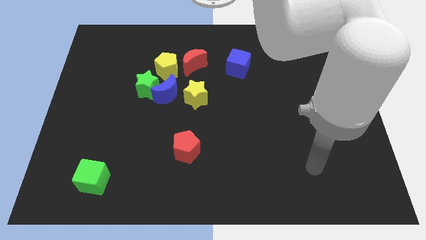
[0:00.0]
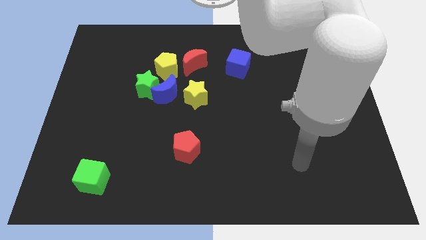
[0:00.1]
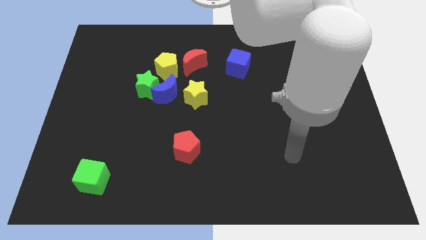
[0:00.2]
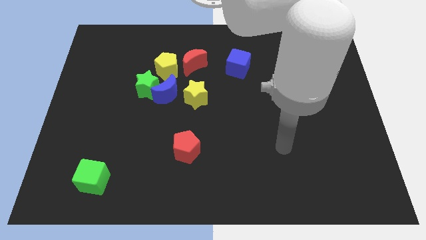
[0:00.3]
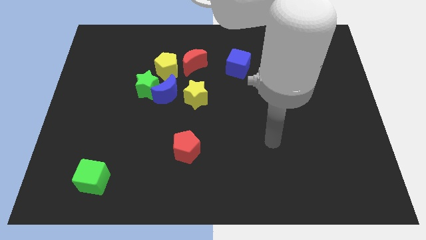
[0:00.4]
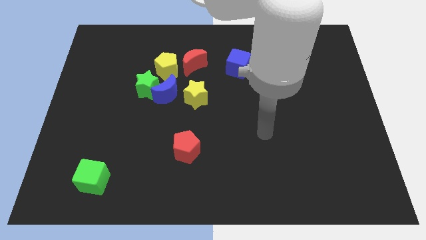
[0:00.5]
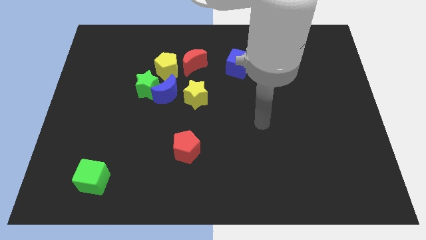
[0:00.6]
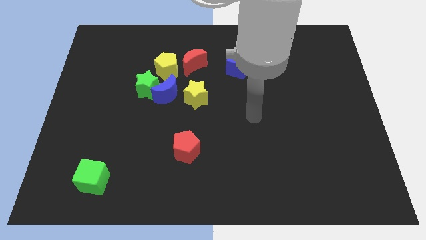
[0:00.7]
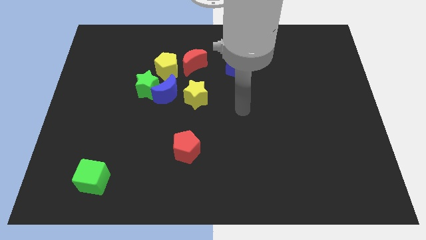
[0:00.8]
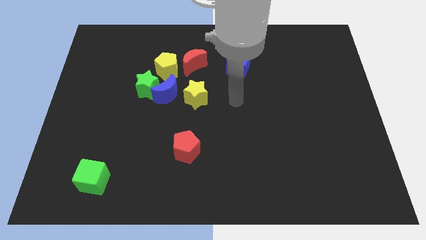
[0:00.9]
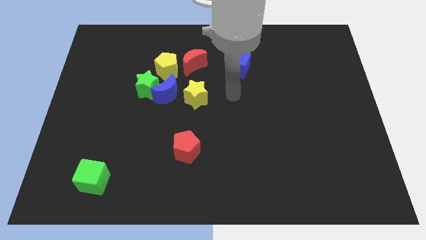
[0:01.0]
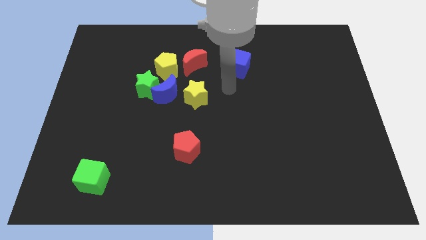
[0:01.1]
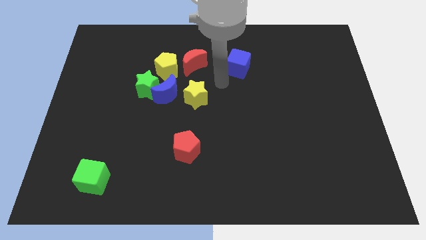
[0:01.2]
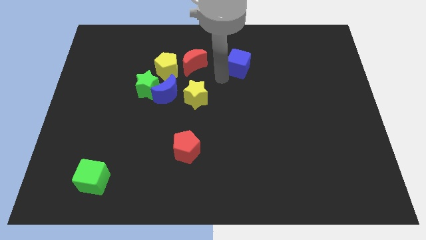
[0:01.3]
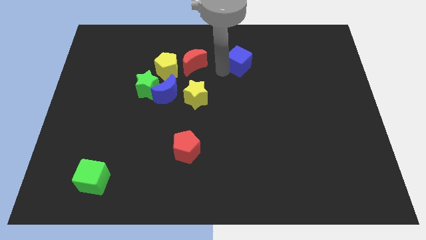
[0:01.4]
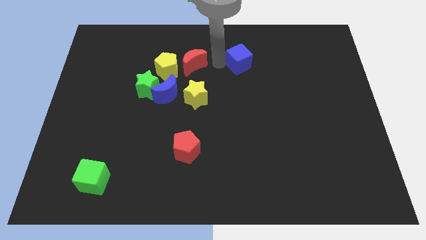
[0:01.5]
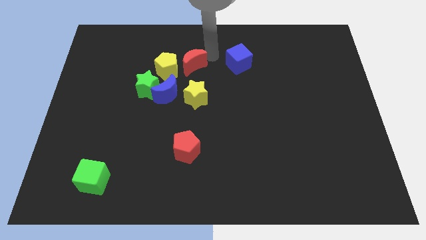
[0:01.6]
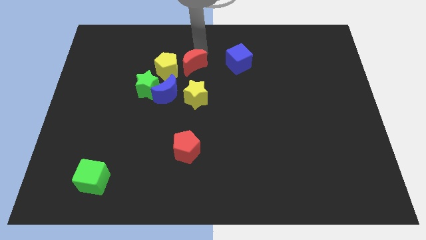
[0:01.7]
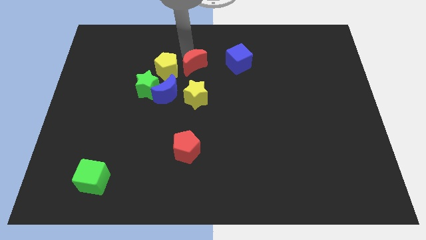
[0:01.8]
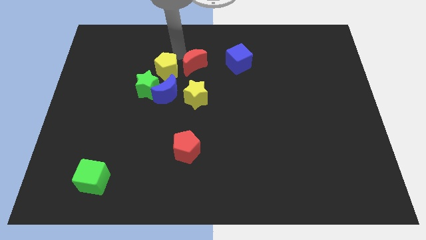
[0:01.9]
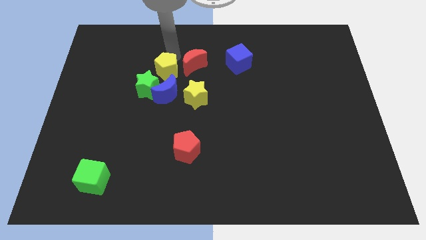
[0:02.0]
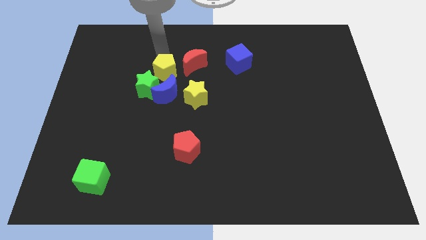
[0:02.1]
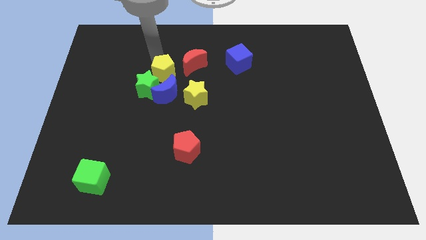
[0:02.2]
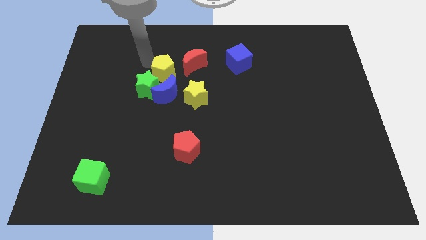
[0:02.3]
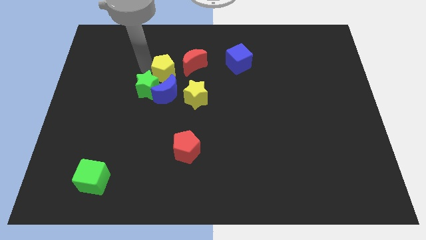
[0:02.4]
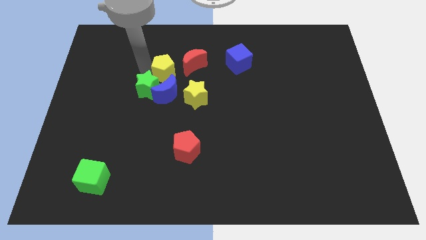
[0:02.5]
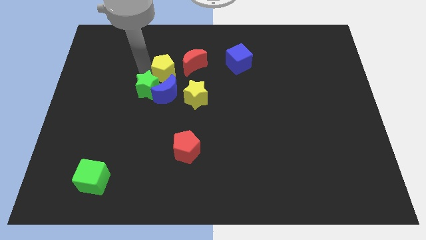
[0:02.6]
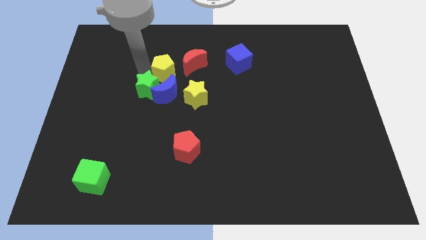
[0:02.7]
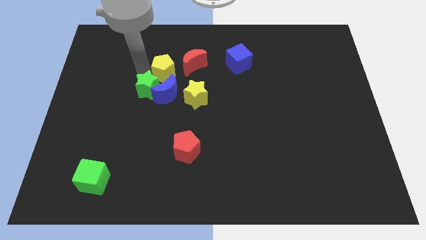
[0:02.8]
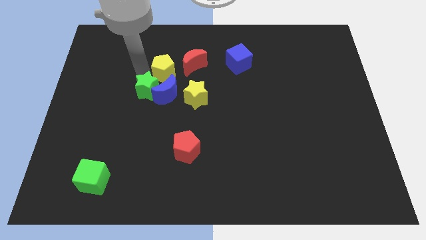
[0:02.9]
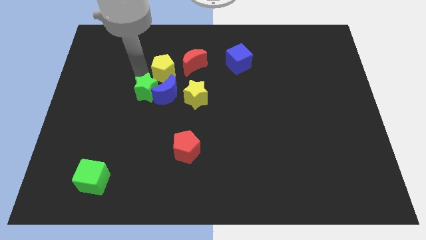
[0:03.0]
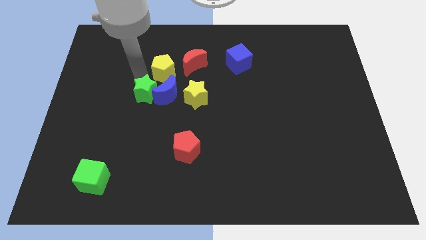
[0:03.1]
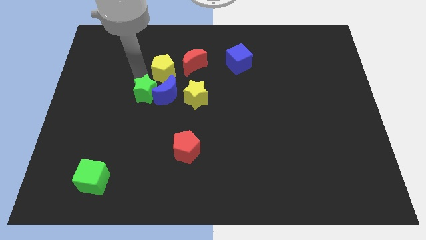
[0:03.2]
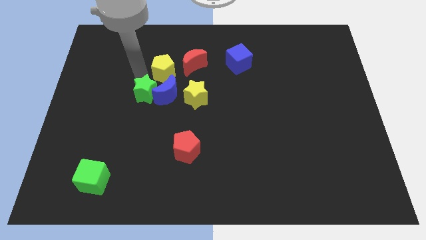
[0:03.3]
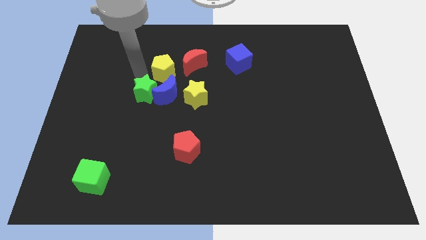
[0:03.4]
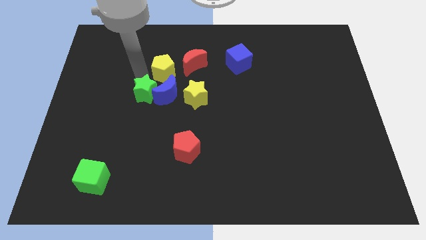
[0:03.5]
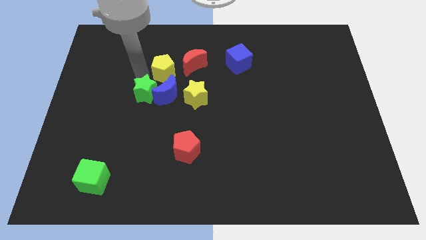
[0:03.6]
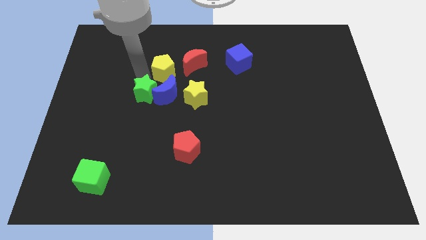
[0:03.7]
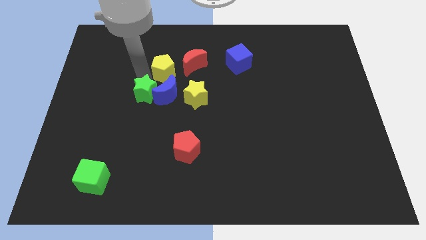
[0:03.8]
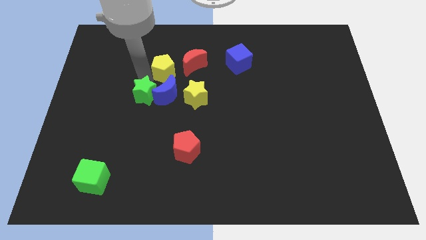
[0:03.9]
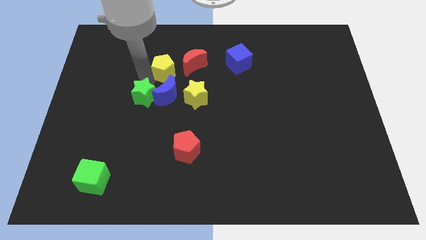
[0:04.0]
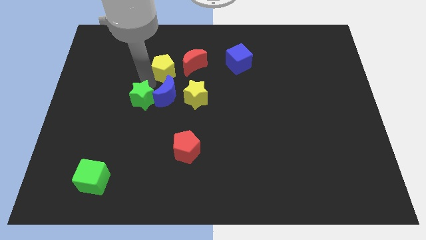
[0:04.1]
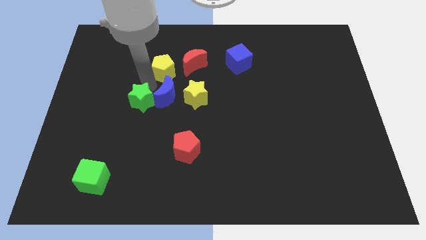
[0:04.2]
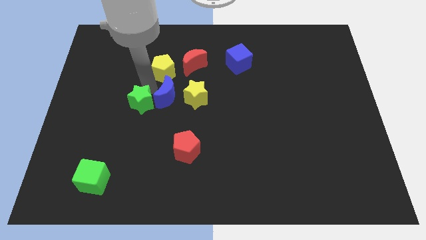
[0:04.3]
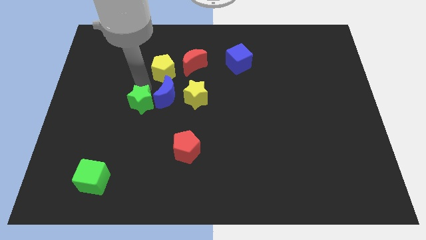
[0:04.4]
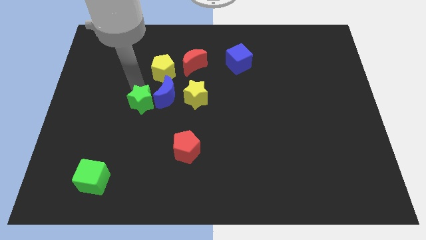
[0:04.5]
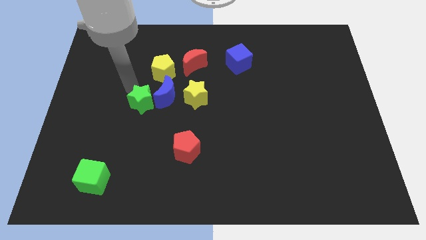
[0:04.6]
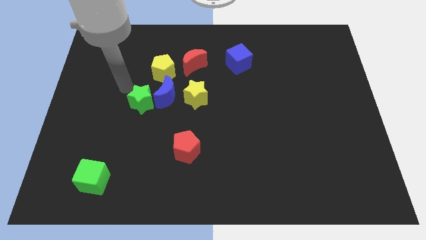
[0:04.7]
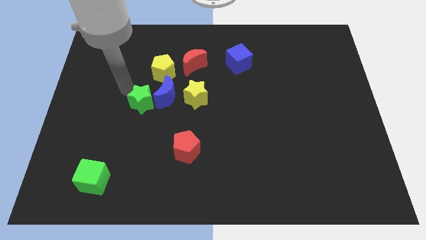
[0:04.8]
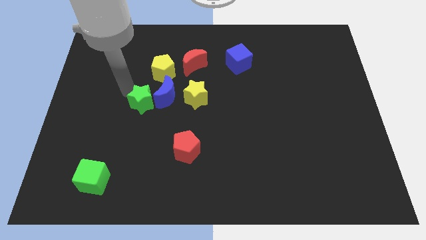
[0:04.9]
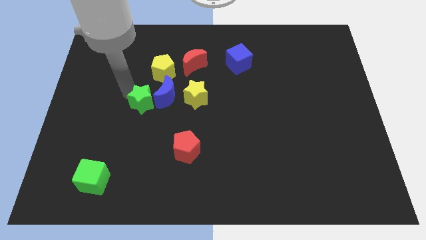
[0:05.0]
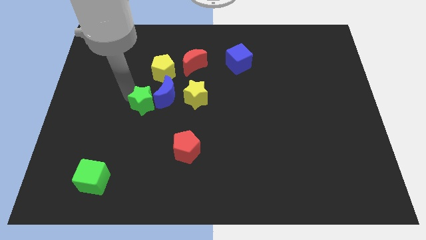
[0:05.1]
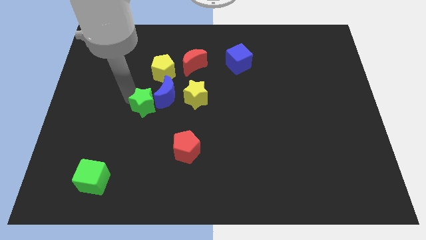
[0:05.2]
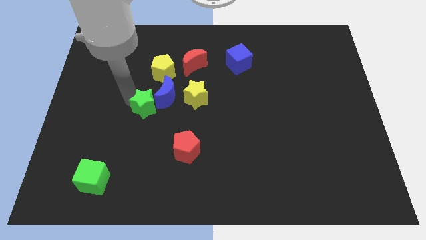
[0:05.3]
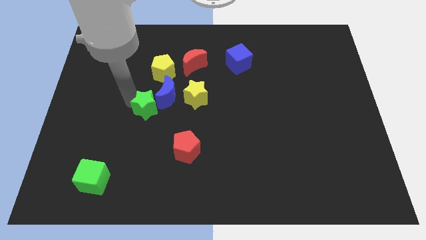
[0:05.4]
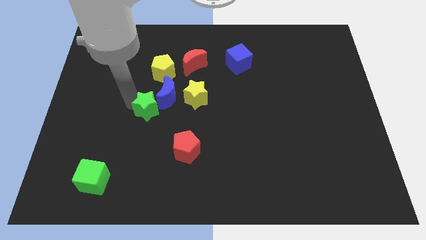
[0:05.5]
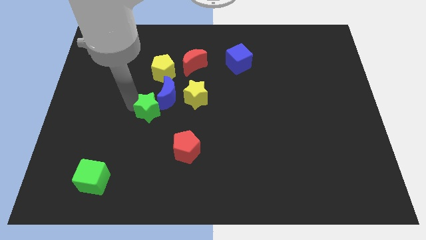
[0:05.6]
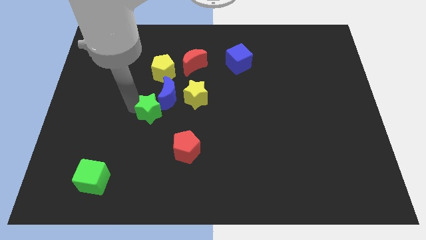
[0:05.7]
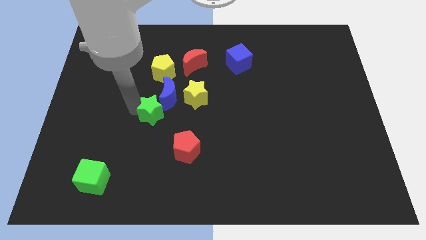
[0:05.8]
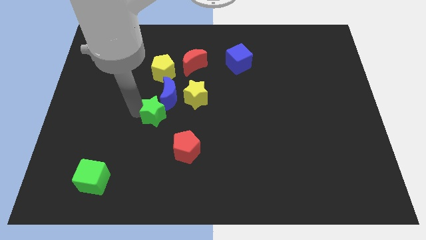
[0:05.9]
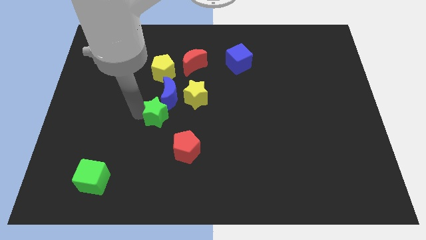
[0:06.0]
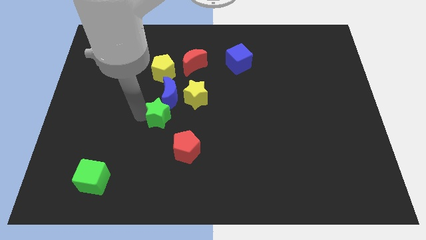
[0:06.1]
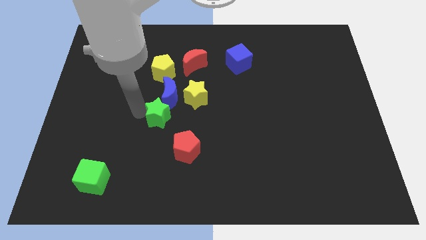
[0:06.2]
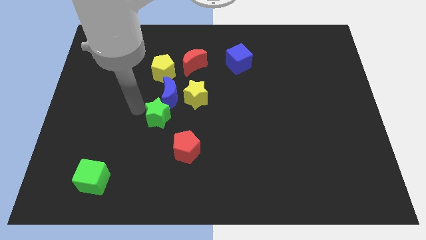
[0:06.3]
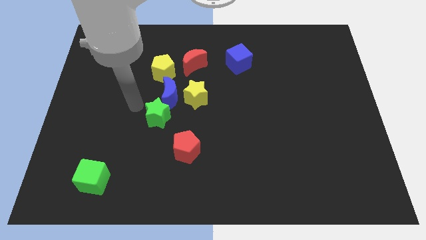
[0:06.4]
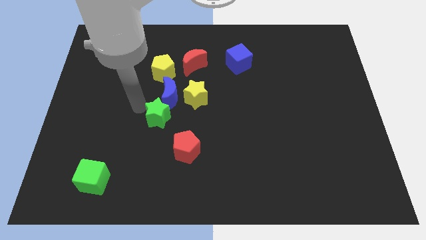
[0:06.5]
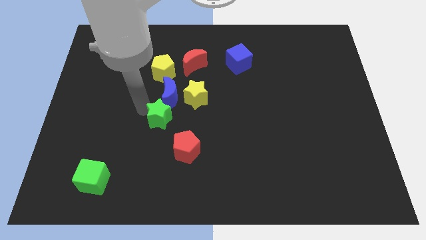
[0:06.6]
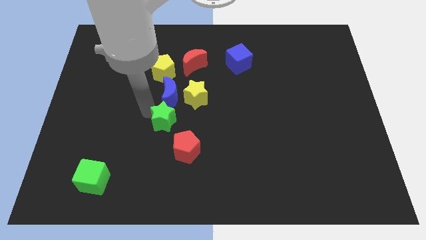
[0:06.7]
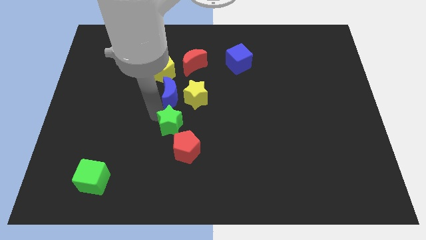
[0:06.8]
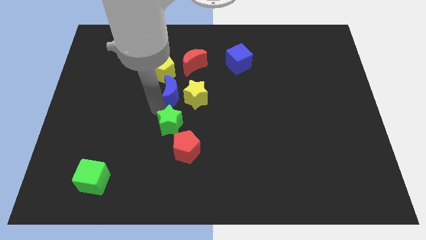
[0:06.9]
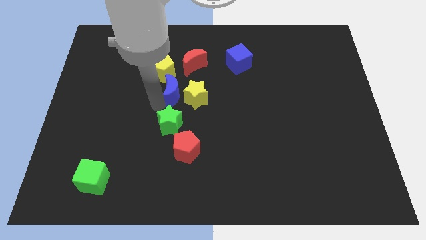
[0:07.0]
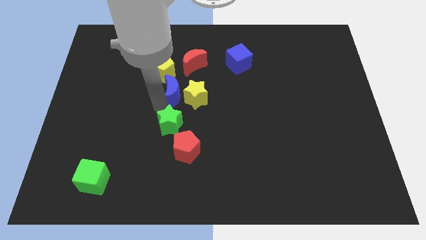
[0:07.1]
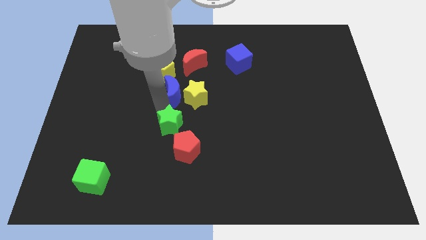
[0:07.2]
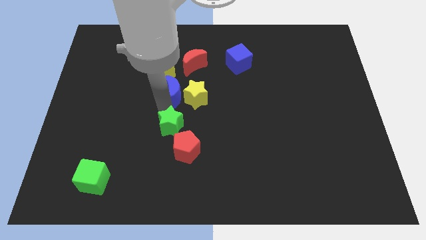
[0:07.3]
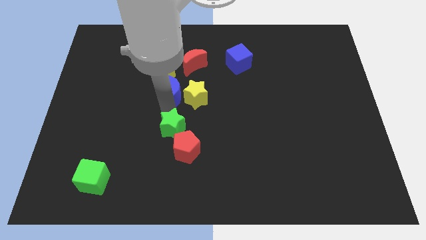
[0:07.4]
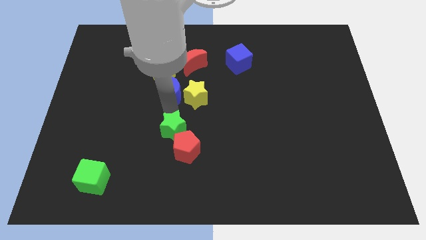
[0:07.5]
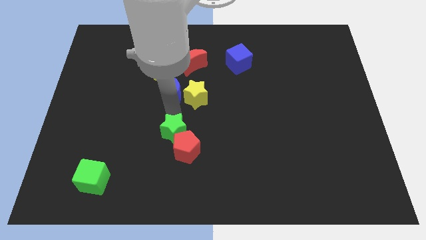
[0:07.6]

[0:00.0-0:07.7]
move the green star close to the red pentagon
